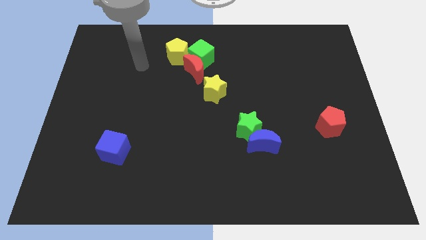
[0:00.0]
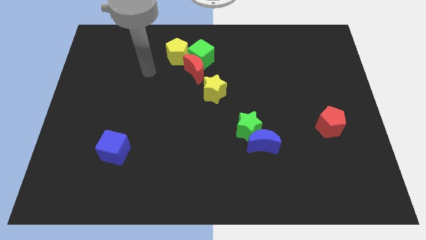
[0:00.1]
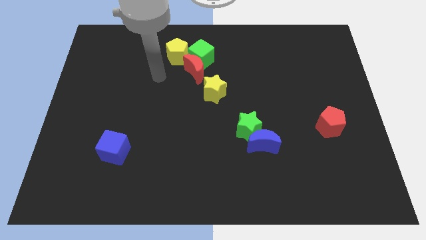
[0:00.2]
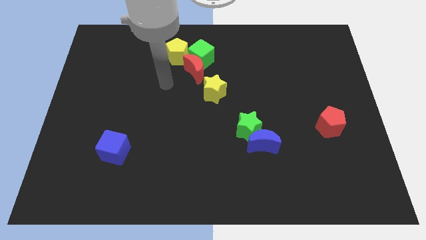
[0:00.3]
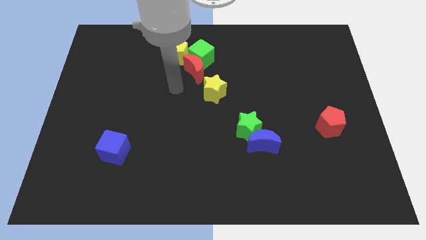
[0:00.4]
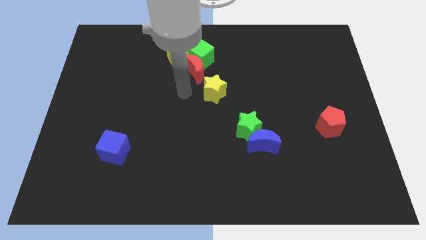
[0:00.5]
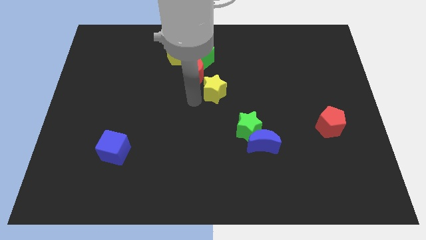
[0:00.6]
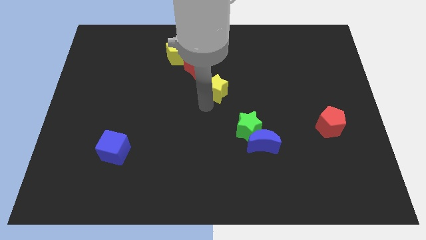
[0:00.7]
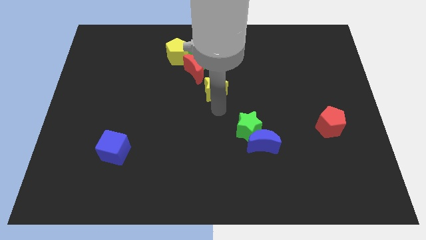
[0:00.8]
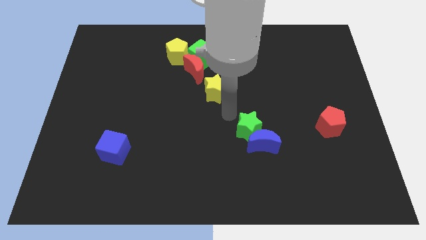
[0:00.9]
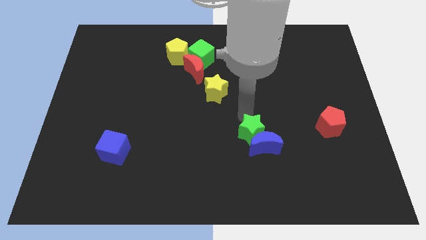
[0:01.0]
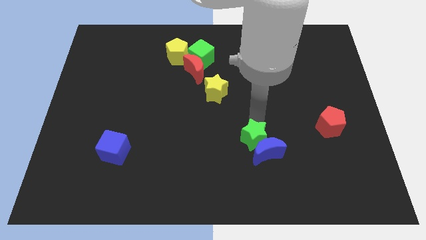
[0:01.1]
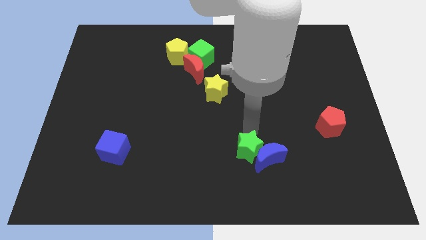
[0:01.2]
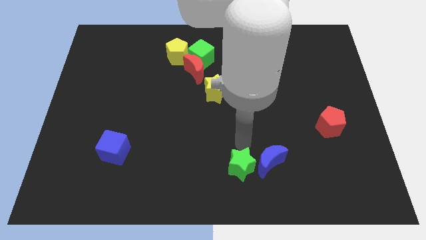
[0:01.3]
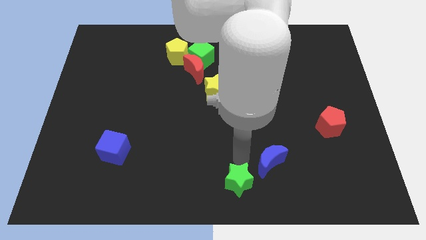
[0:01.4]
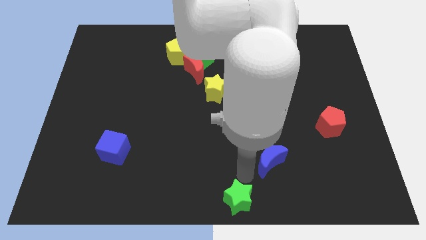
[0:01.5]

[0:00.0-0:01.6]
move the blue moon away from the green star

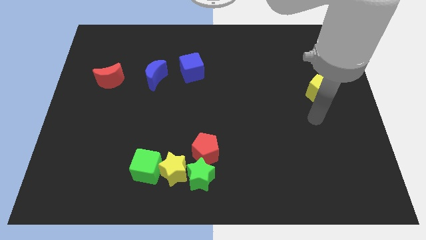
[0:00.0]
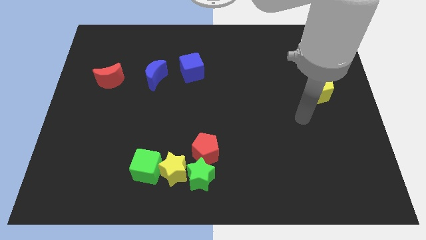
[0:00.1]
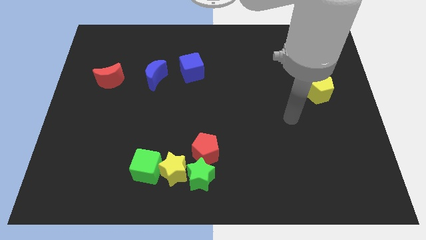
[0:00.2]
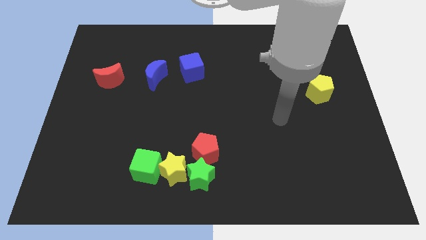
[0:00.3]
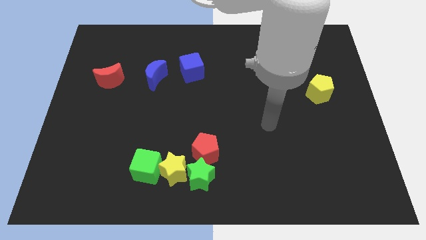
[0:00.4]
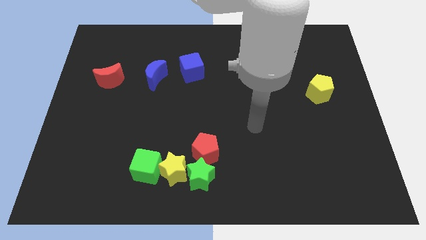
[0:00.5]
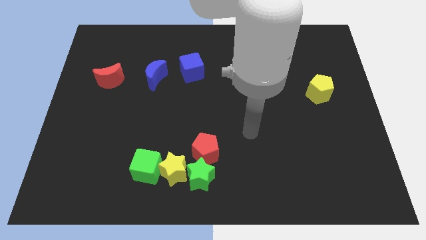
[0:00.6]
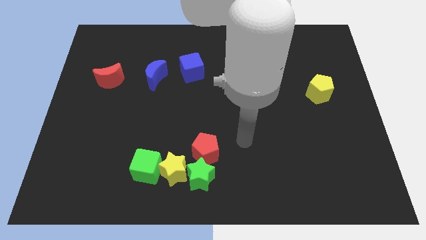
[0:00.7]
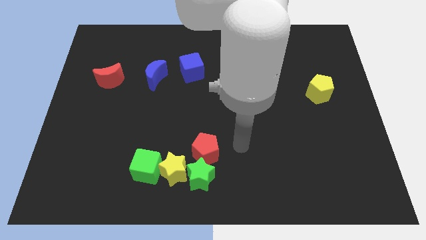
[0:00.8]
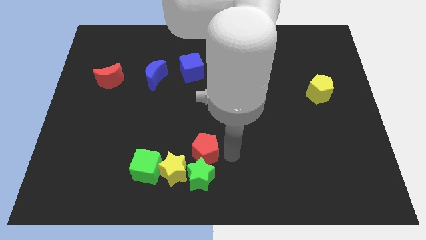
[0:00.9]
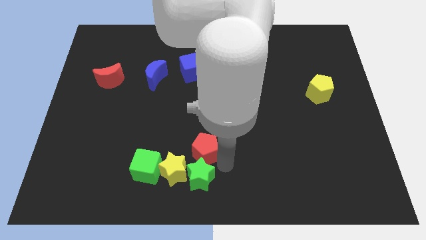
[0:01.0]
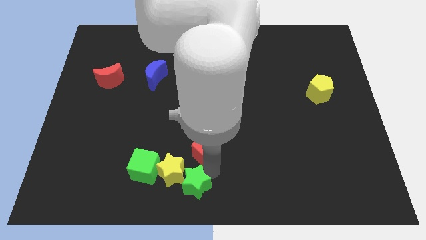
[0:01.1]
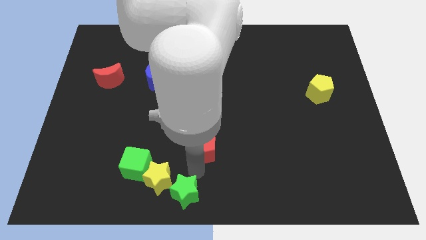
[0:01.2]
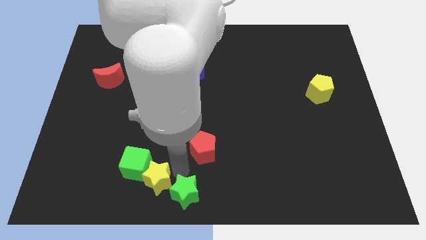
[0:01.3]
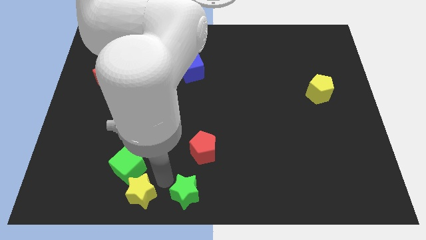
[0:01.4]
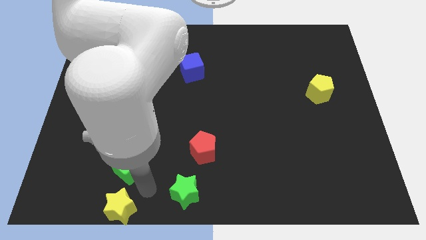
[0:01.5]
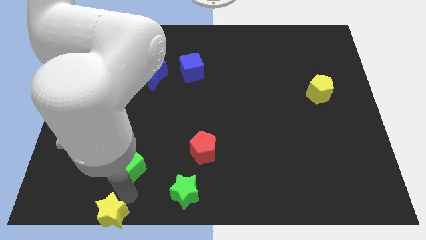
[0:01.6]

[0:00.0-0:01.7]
pull the green cube apart from the yellow star

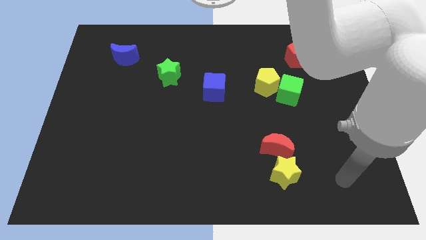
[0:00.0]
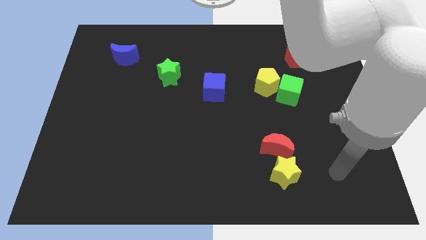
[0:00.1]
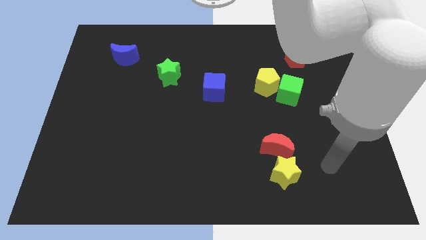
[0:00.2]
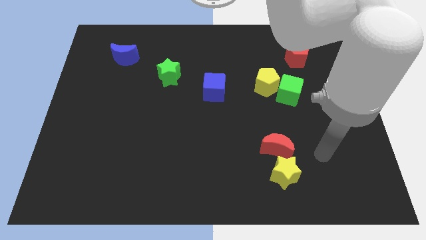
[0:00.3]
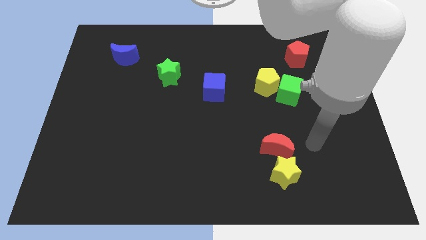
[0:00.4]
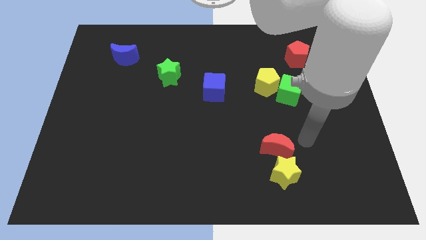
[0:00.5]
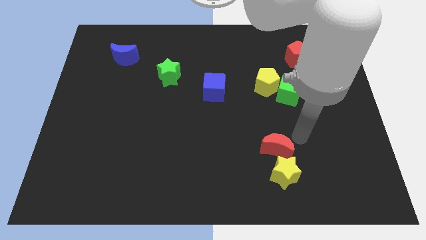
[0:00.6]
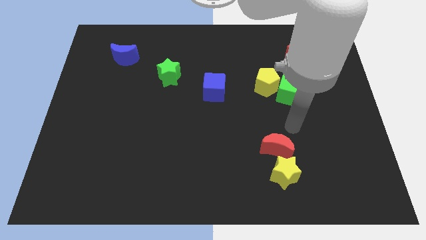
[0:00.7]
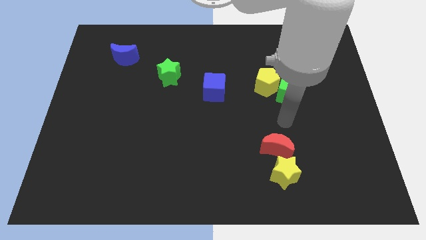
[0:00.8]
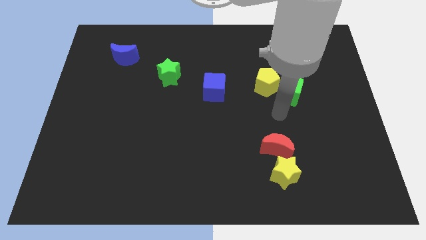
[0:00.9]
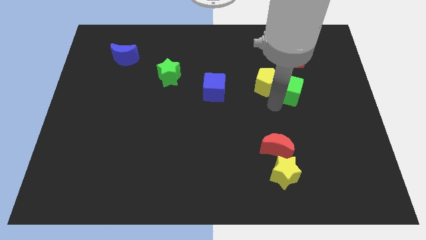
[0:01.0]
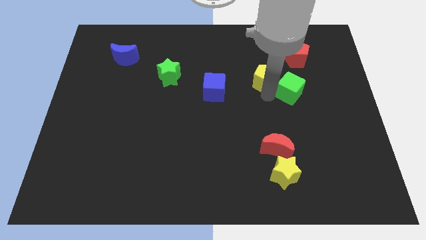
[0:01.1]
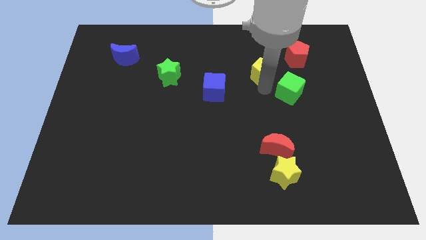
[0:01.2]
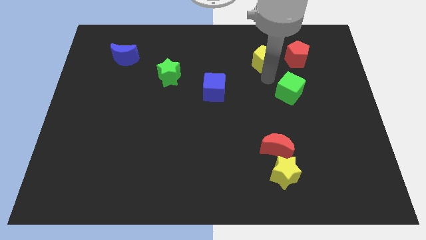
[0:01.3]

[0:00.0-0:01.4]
move the green cube away from the yellow pentagon

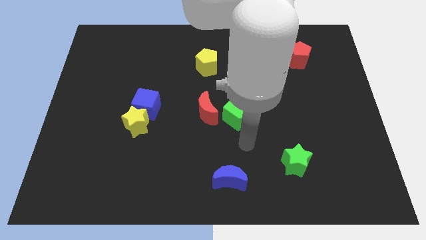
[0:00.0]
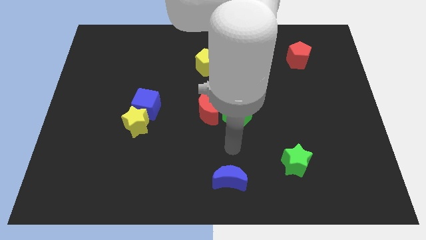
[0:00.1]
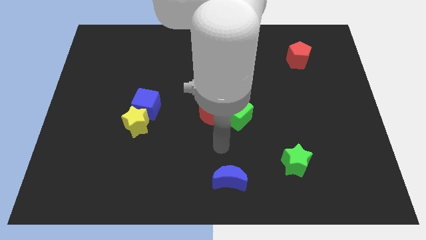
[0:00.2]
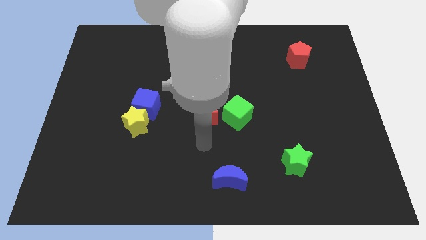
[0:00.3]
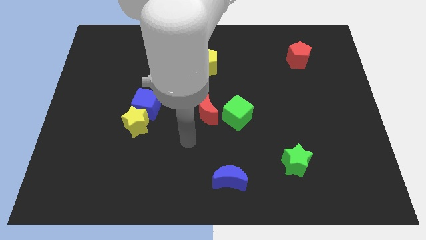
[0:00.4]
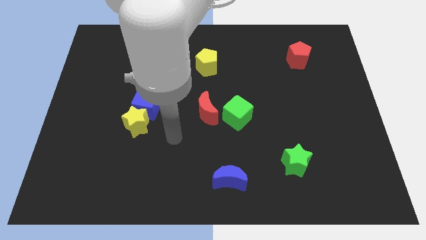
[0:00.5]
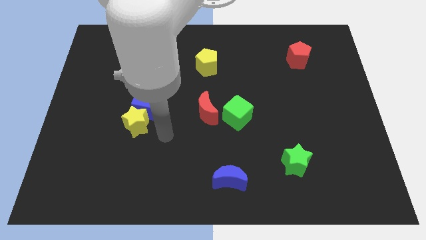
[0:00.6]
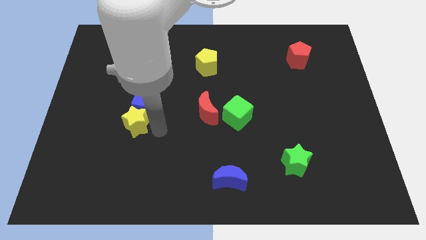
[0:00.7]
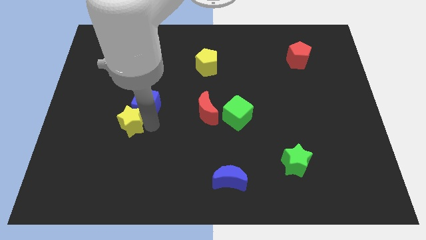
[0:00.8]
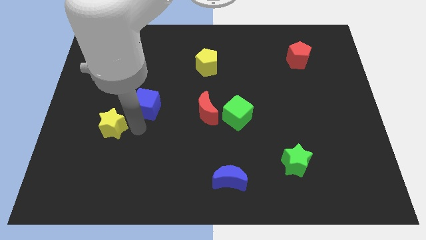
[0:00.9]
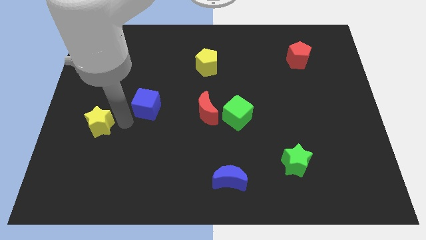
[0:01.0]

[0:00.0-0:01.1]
pull the blue cube apart from the yellow star

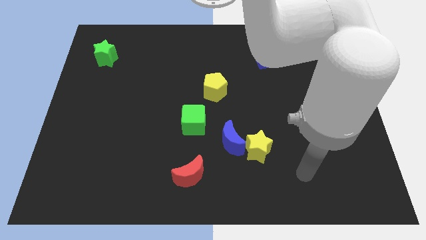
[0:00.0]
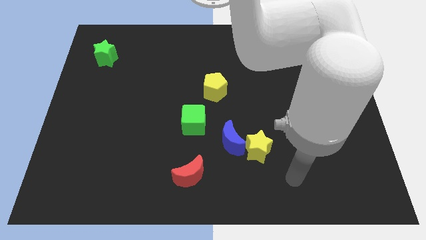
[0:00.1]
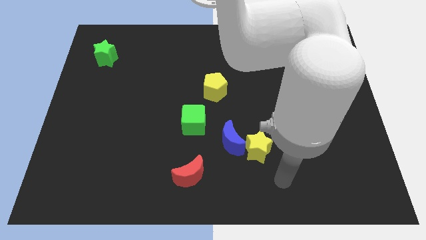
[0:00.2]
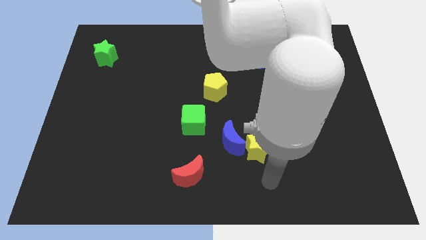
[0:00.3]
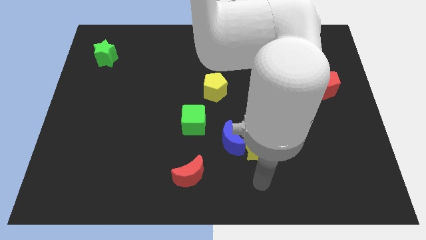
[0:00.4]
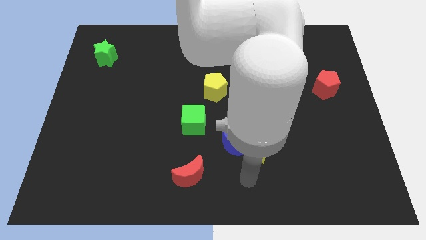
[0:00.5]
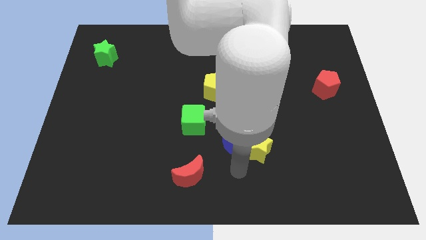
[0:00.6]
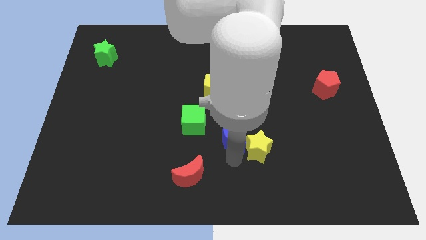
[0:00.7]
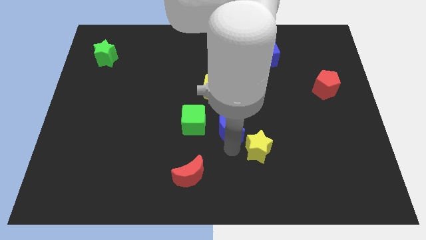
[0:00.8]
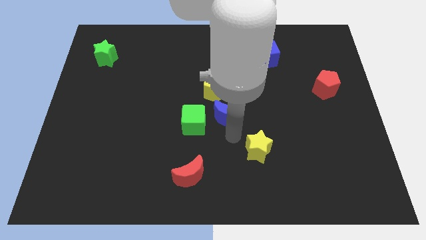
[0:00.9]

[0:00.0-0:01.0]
move the yellow star away from the blue moon

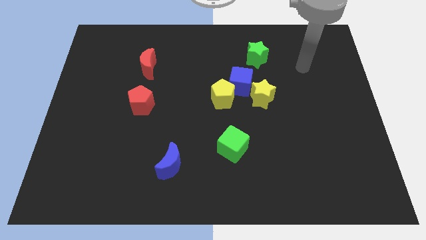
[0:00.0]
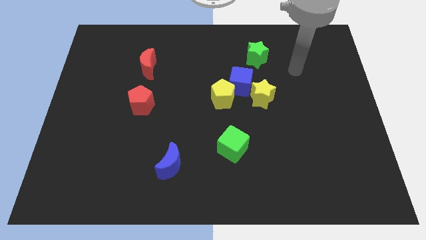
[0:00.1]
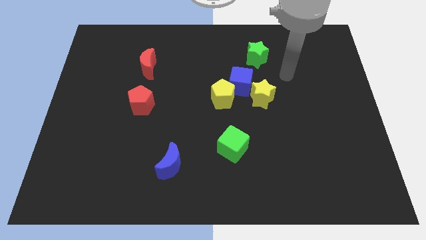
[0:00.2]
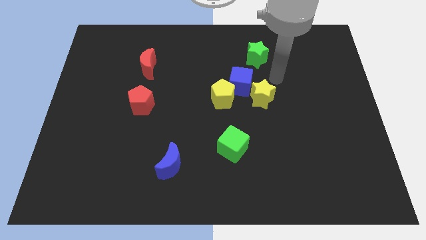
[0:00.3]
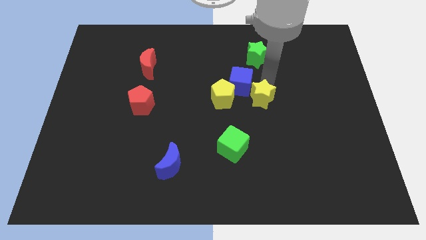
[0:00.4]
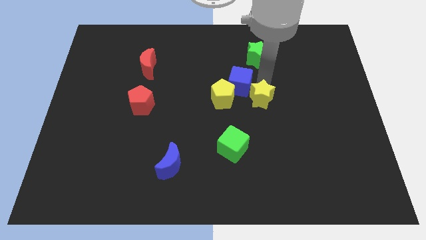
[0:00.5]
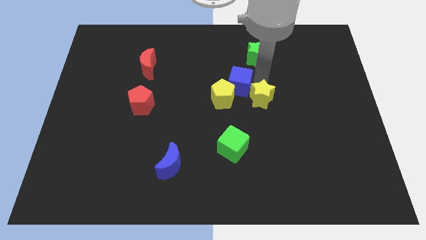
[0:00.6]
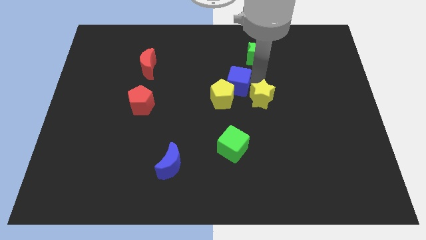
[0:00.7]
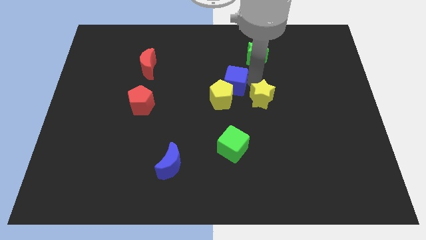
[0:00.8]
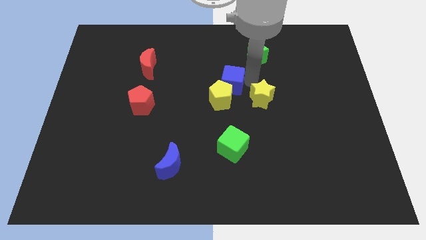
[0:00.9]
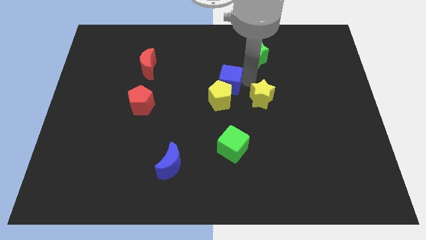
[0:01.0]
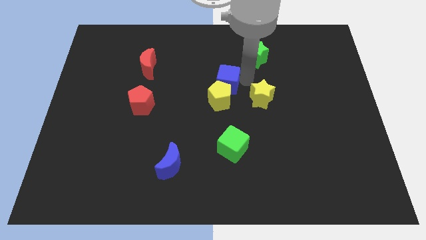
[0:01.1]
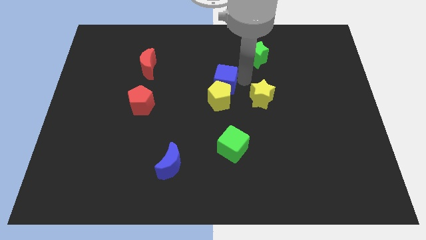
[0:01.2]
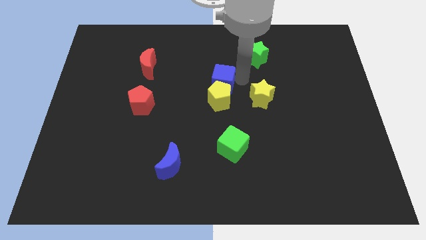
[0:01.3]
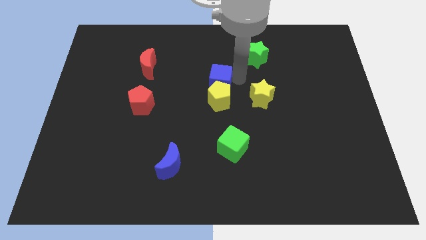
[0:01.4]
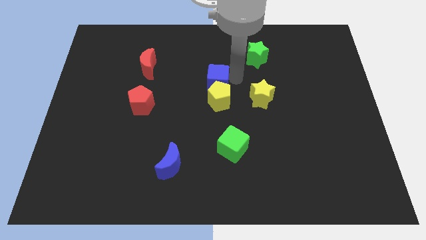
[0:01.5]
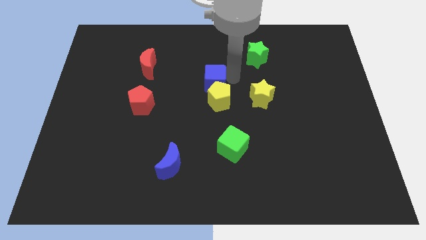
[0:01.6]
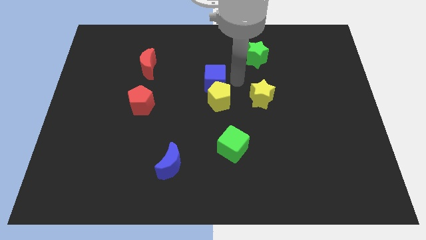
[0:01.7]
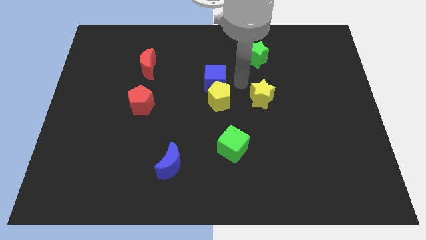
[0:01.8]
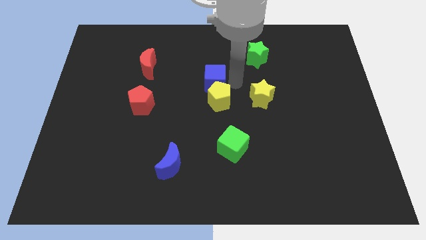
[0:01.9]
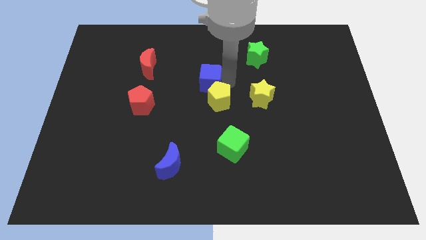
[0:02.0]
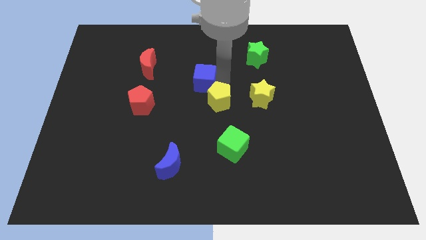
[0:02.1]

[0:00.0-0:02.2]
separate the blue cube from the yellow pentagon, yellow star, and green star

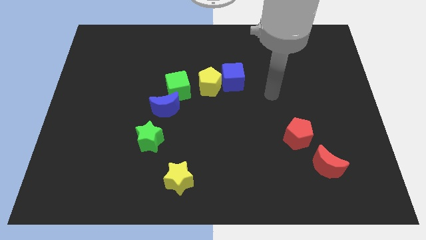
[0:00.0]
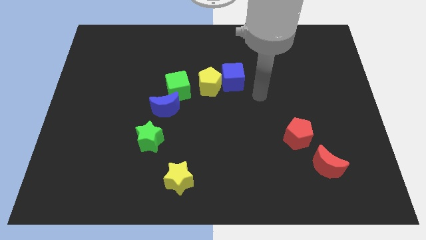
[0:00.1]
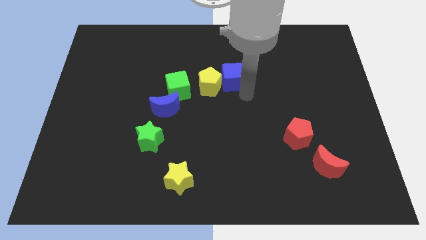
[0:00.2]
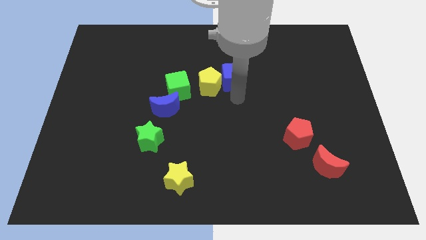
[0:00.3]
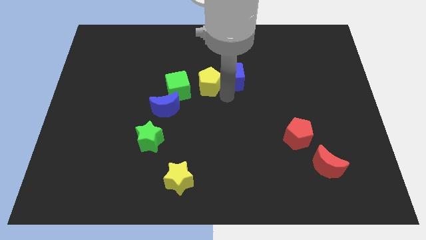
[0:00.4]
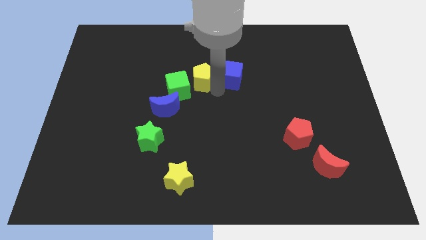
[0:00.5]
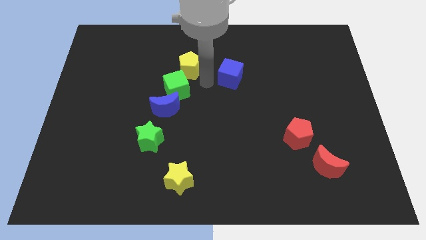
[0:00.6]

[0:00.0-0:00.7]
move the blue cube away from the yellow pentagon
